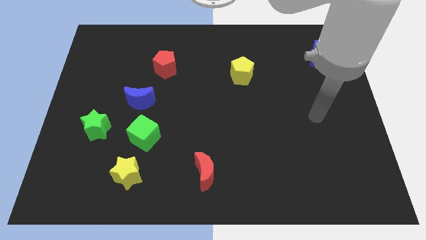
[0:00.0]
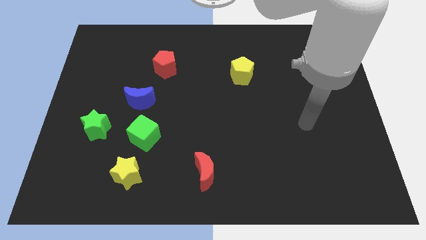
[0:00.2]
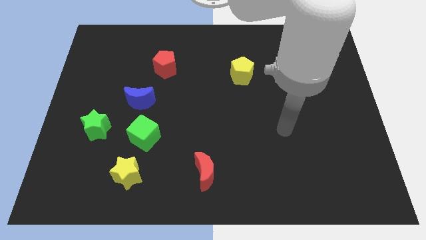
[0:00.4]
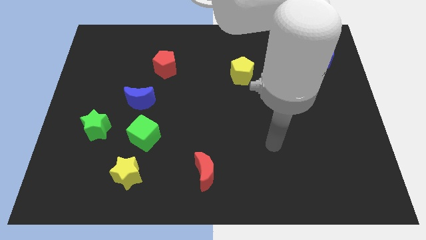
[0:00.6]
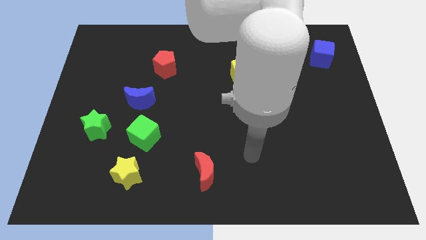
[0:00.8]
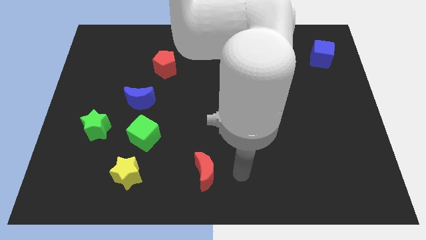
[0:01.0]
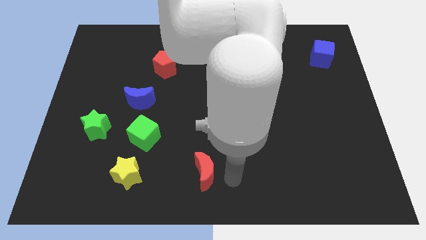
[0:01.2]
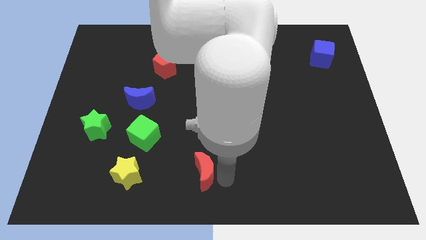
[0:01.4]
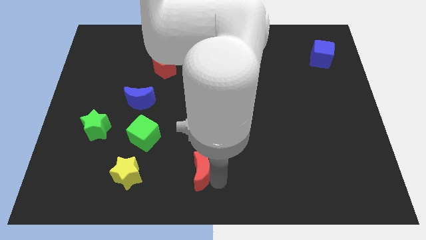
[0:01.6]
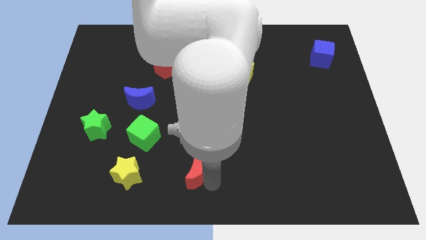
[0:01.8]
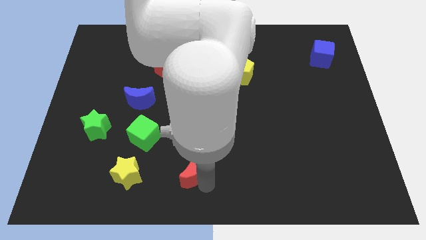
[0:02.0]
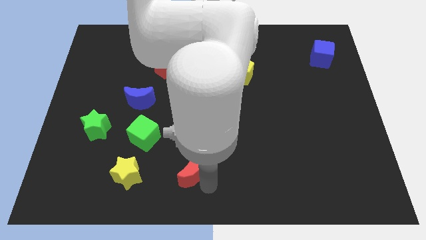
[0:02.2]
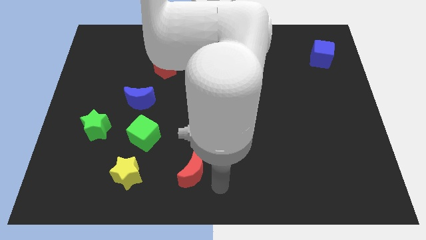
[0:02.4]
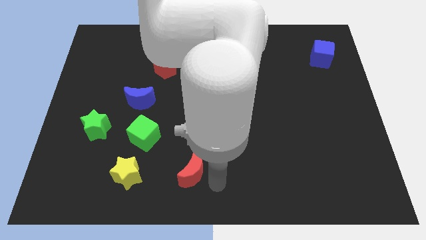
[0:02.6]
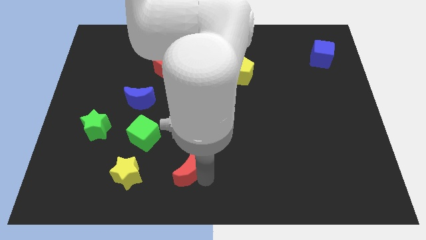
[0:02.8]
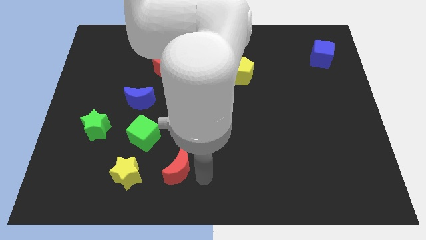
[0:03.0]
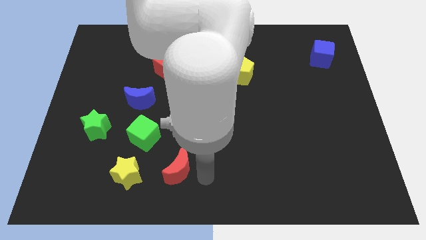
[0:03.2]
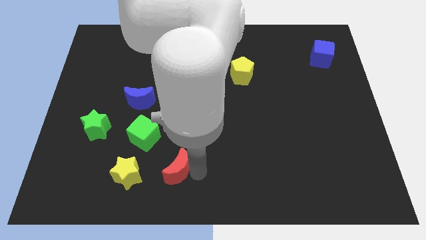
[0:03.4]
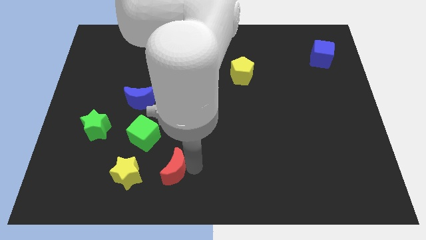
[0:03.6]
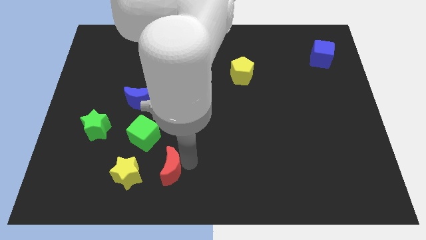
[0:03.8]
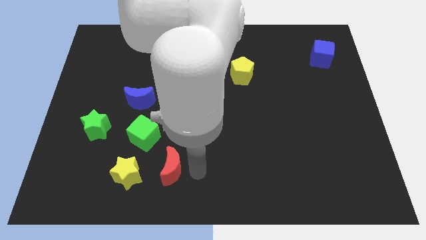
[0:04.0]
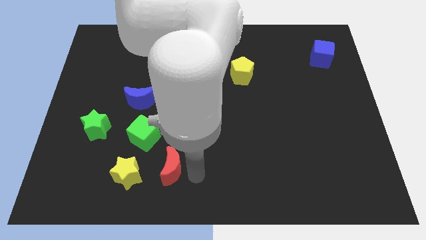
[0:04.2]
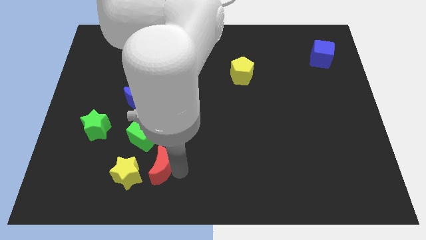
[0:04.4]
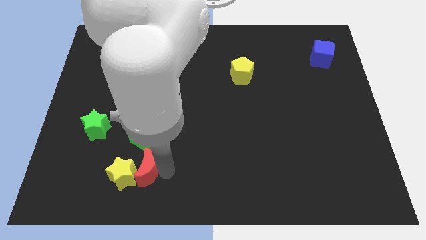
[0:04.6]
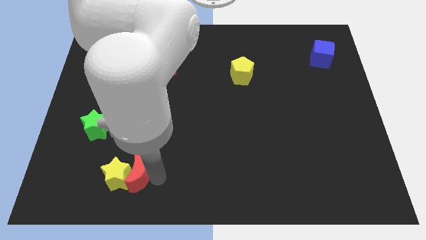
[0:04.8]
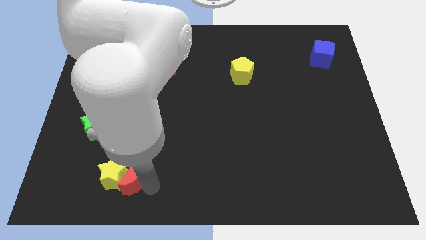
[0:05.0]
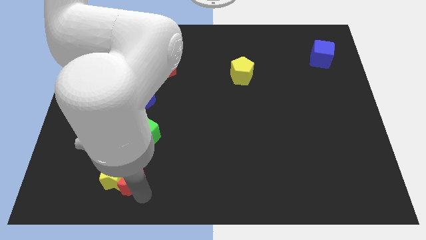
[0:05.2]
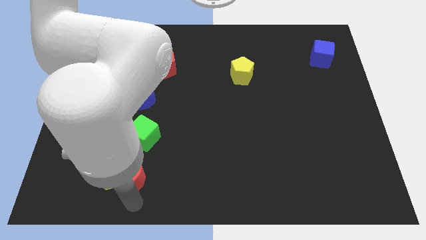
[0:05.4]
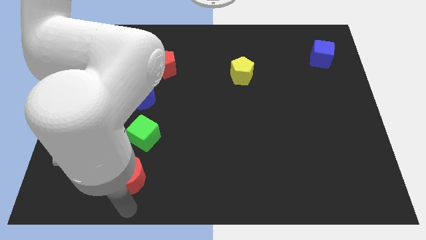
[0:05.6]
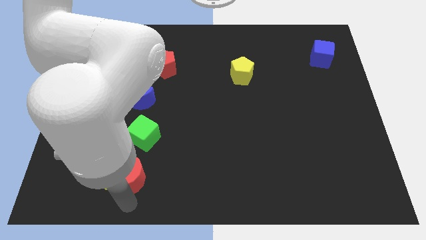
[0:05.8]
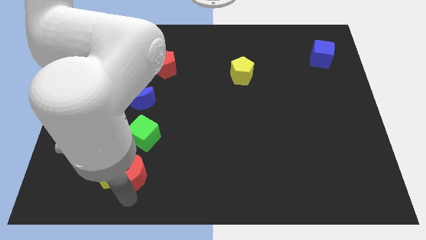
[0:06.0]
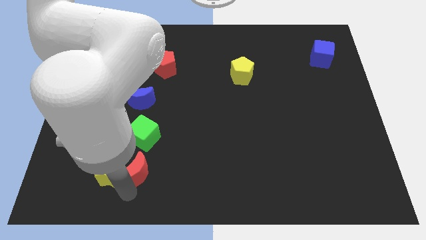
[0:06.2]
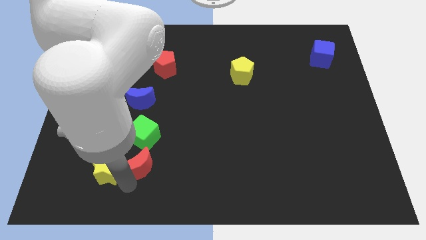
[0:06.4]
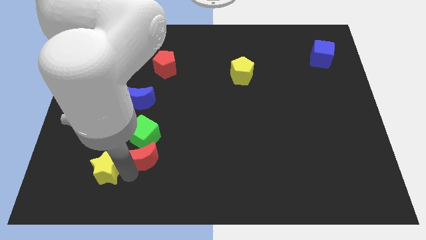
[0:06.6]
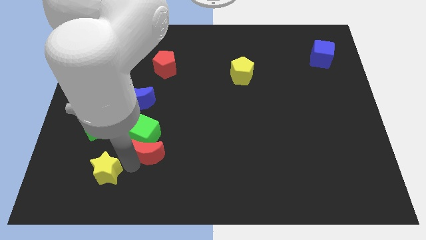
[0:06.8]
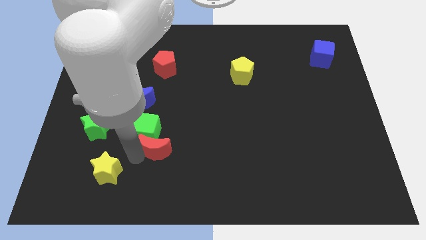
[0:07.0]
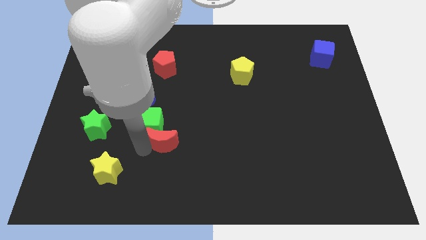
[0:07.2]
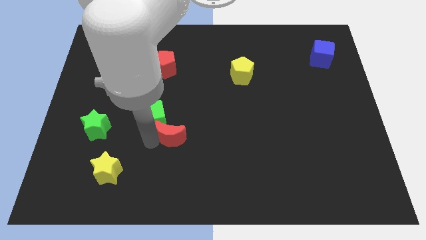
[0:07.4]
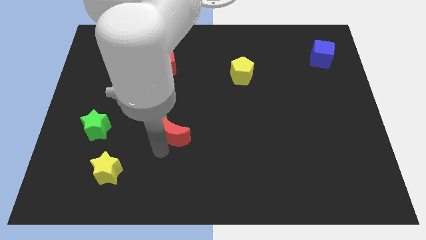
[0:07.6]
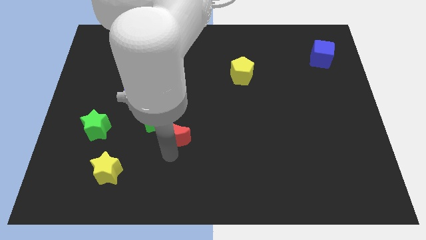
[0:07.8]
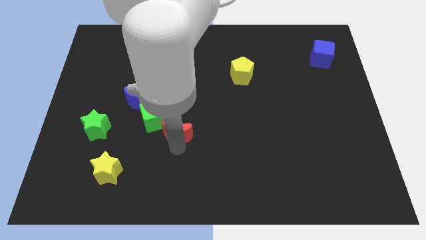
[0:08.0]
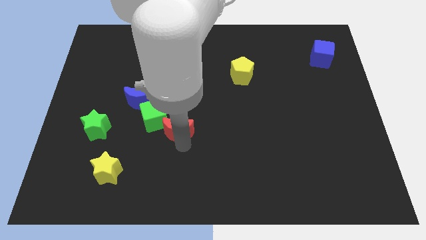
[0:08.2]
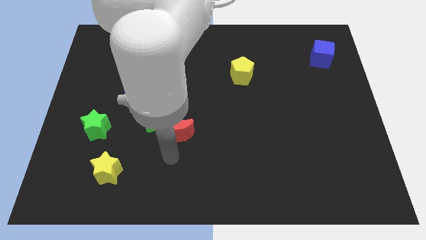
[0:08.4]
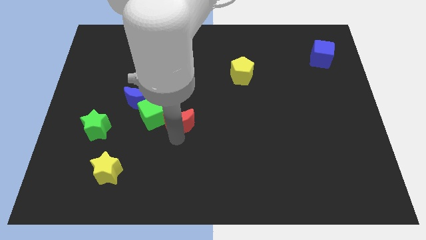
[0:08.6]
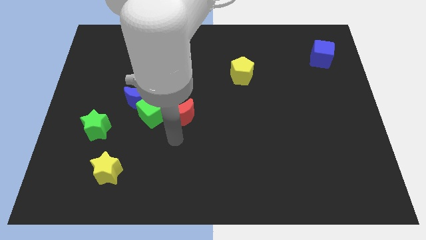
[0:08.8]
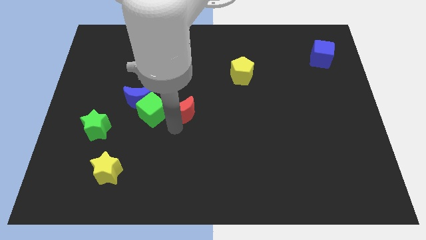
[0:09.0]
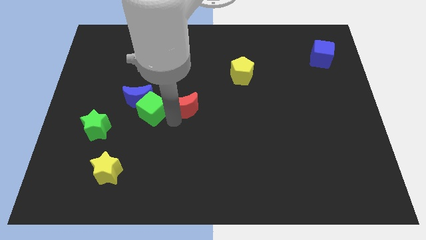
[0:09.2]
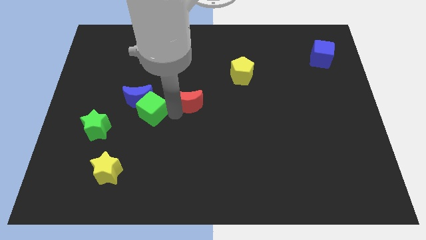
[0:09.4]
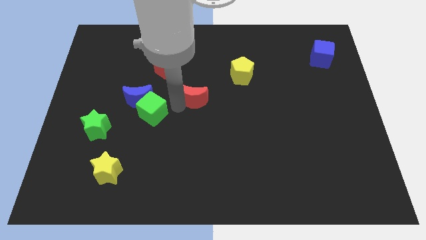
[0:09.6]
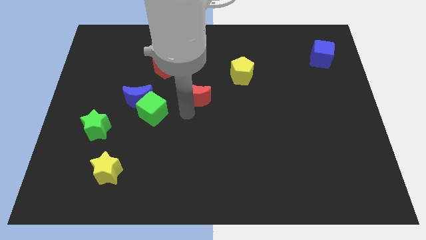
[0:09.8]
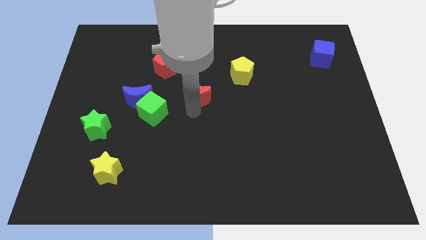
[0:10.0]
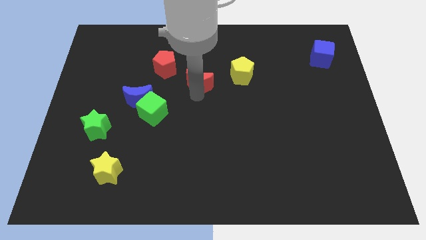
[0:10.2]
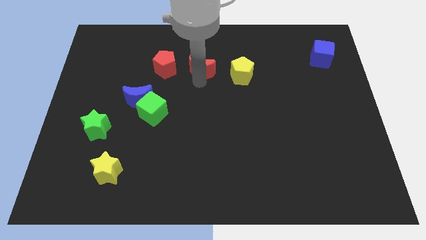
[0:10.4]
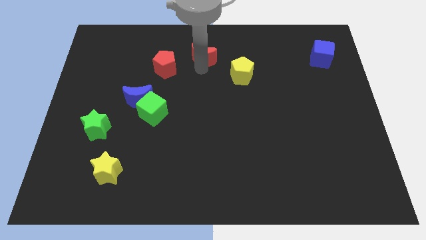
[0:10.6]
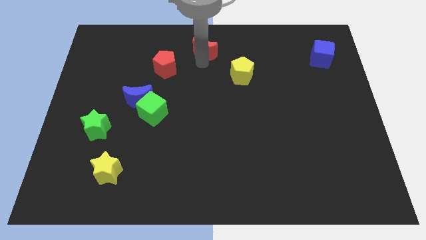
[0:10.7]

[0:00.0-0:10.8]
slide the red moon to the towards your base
